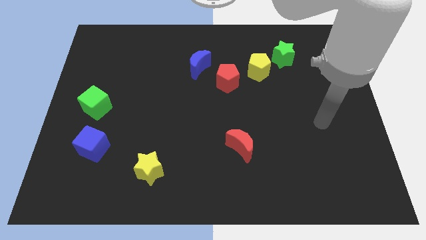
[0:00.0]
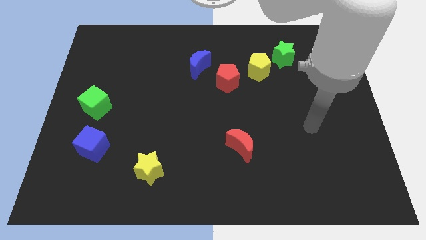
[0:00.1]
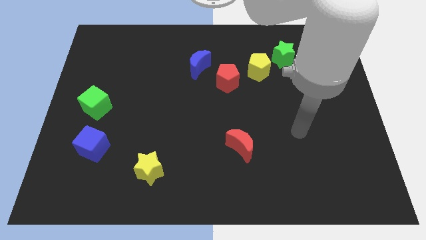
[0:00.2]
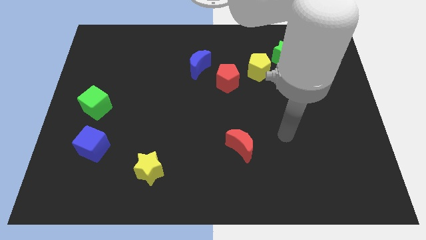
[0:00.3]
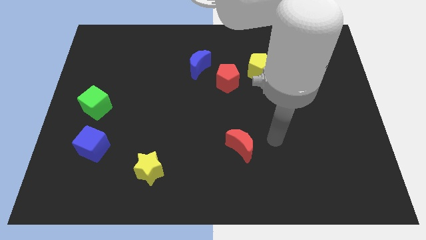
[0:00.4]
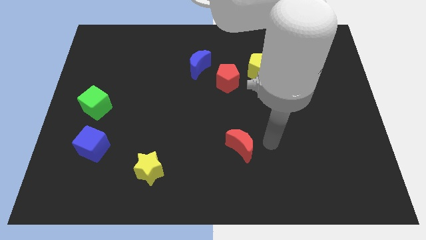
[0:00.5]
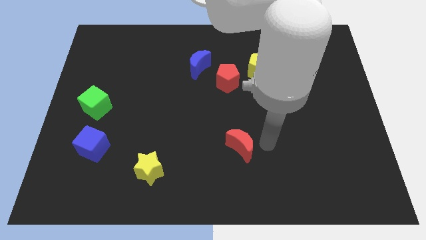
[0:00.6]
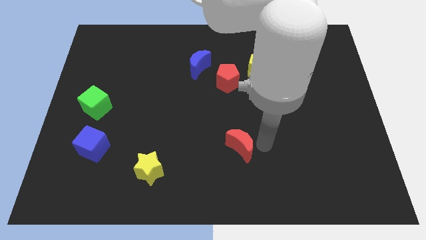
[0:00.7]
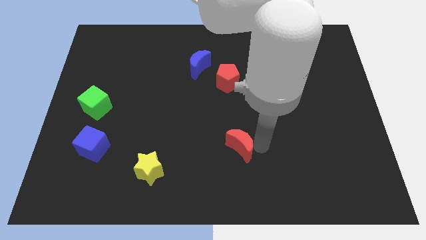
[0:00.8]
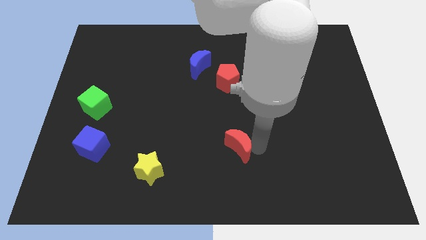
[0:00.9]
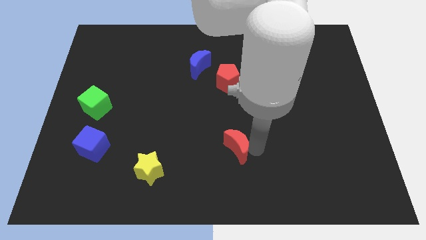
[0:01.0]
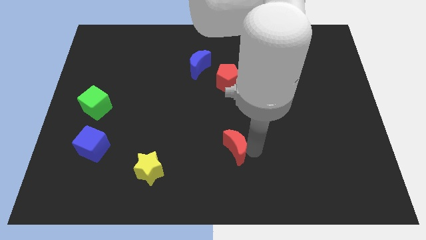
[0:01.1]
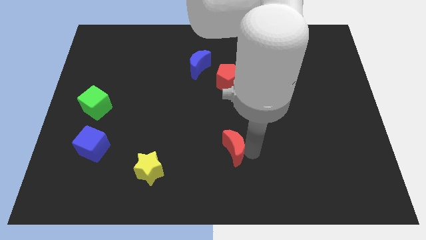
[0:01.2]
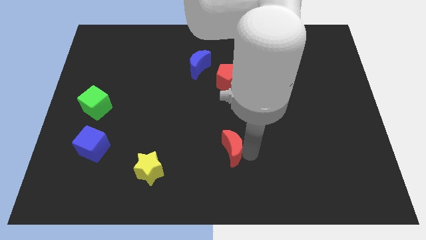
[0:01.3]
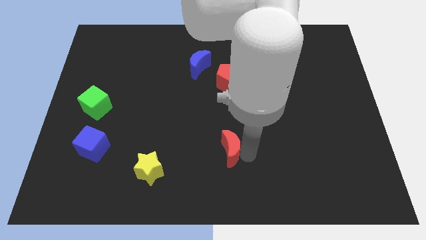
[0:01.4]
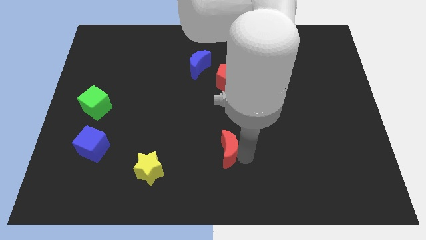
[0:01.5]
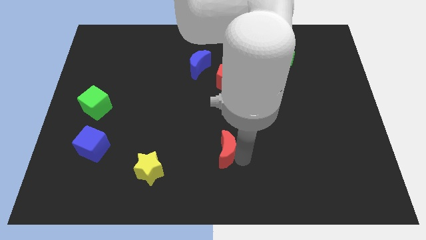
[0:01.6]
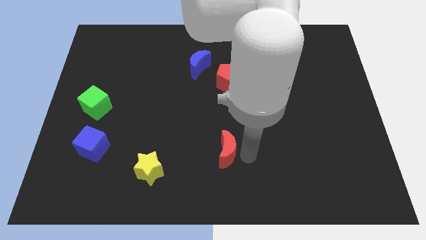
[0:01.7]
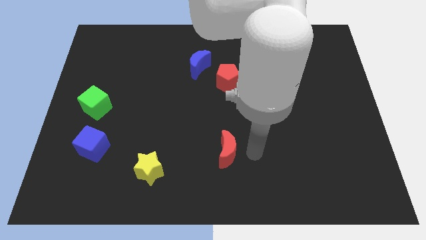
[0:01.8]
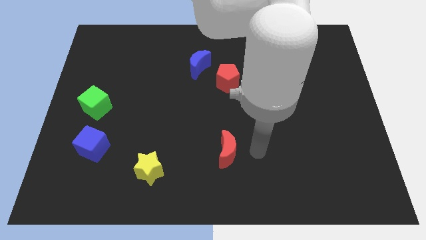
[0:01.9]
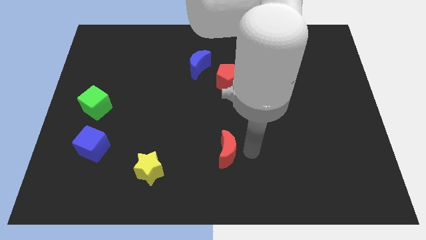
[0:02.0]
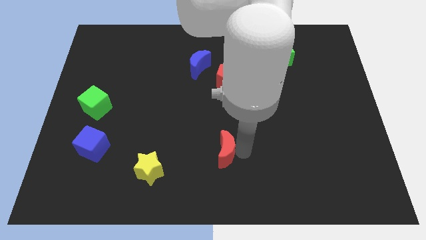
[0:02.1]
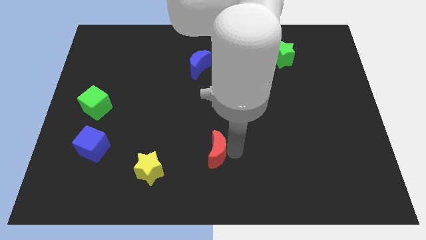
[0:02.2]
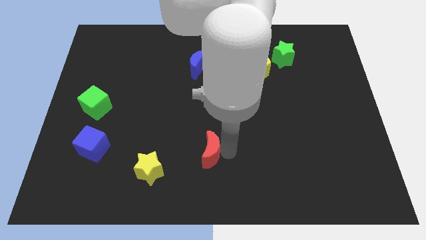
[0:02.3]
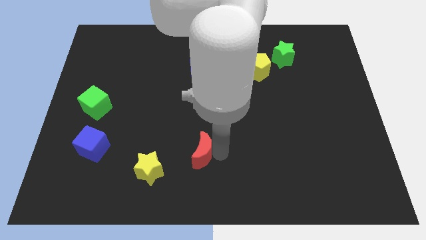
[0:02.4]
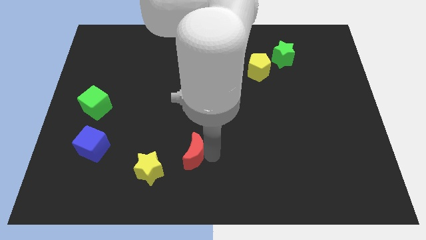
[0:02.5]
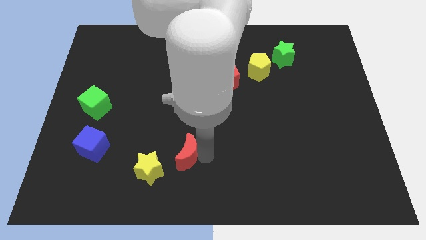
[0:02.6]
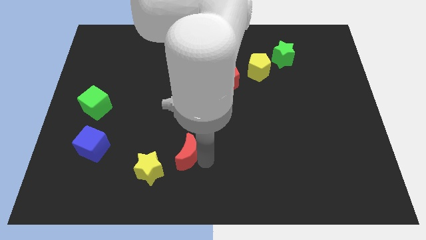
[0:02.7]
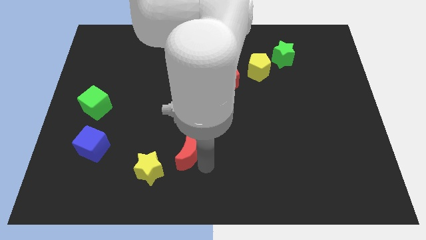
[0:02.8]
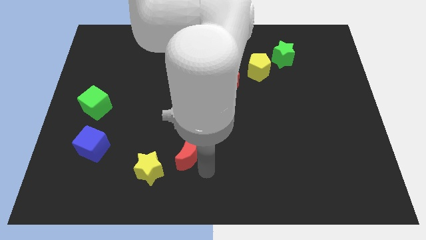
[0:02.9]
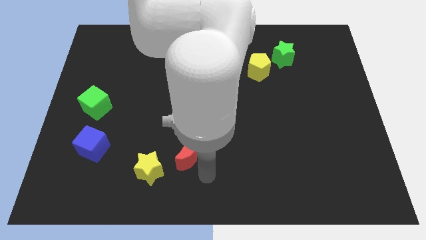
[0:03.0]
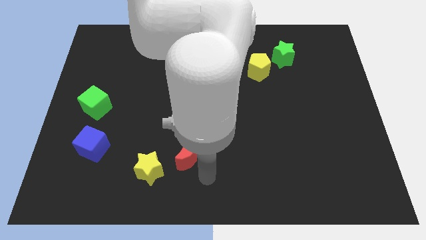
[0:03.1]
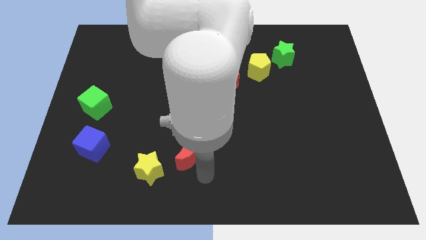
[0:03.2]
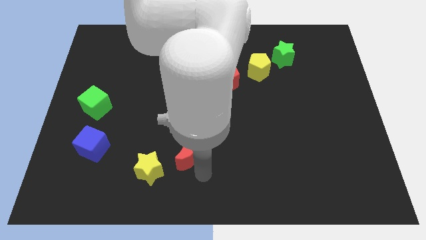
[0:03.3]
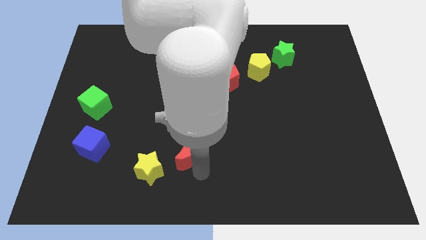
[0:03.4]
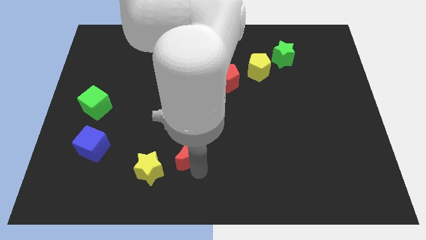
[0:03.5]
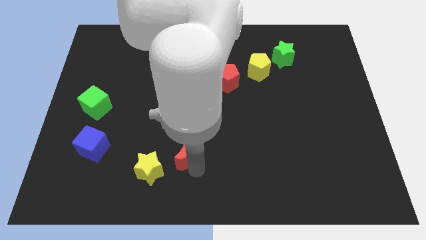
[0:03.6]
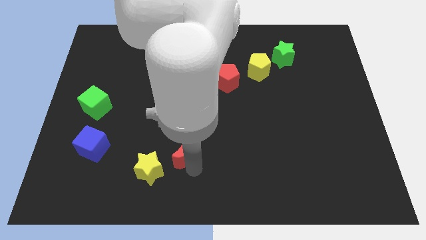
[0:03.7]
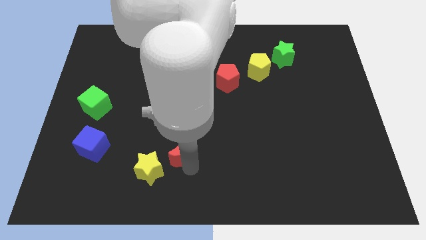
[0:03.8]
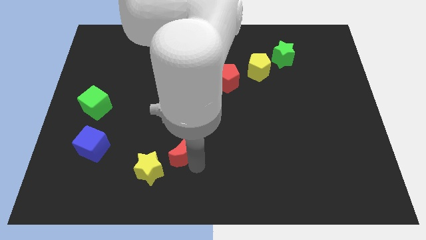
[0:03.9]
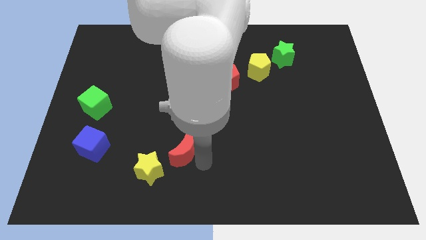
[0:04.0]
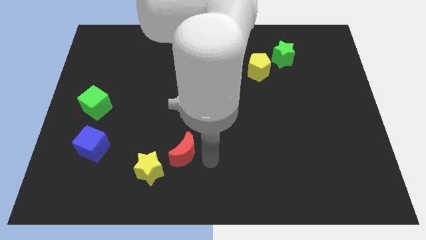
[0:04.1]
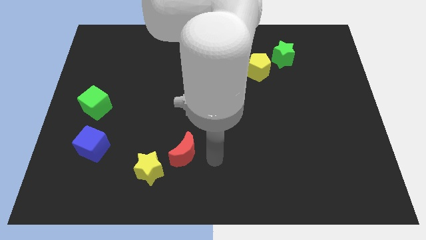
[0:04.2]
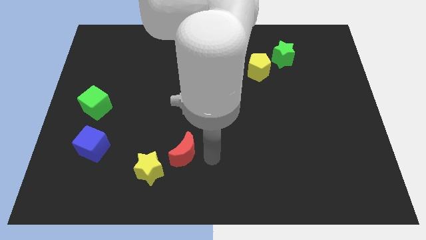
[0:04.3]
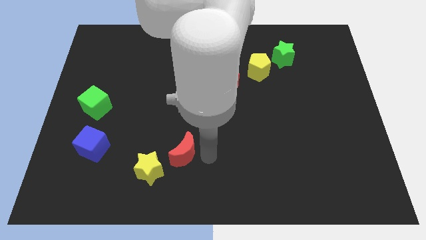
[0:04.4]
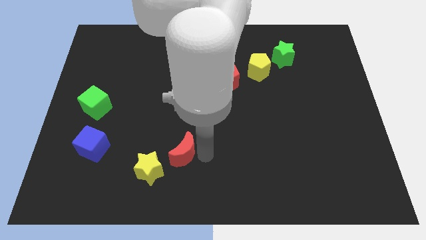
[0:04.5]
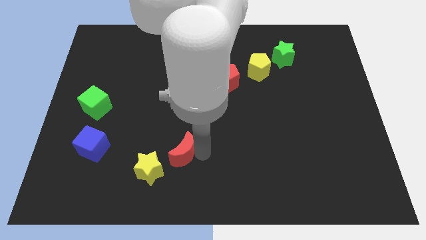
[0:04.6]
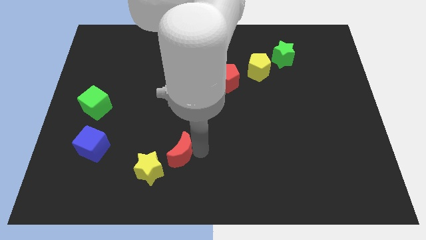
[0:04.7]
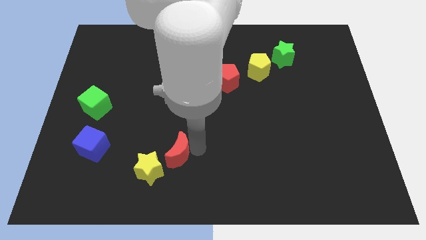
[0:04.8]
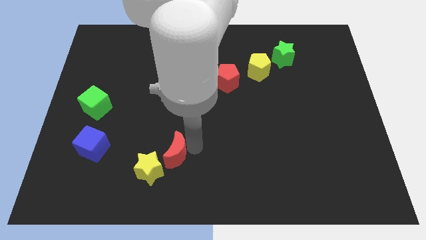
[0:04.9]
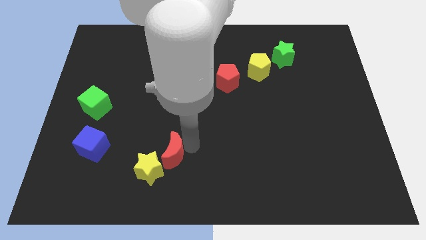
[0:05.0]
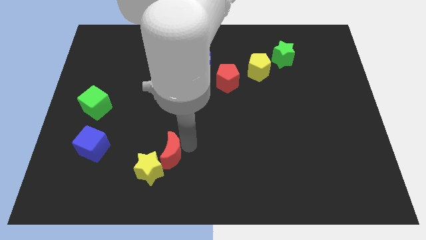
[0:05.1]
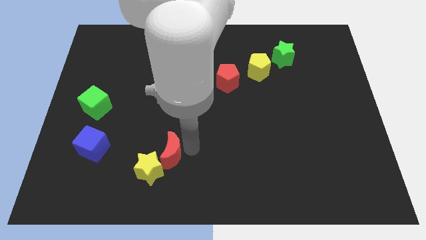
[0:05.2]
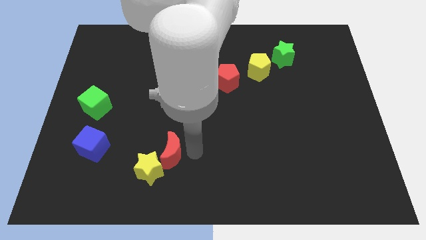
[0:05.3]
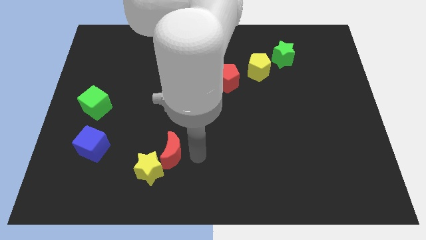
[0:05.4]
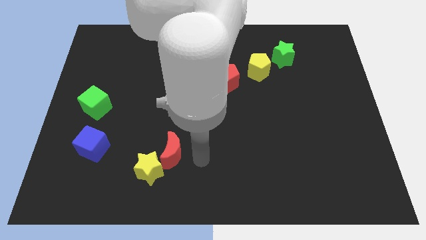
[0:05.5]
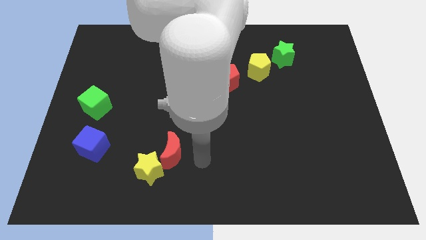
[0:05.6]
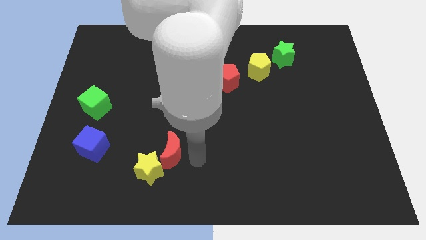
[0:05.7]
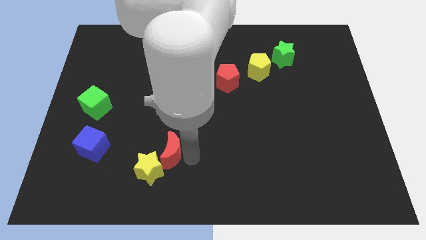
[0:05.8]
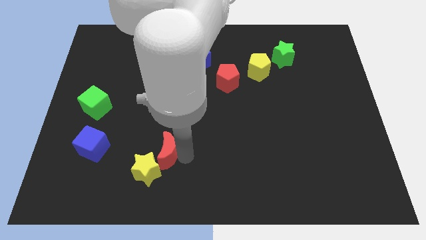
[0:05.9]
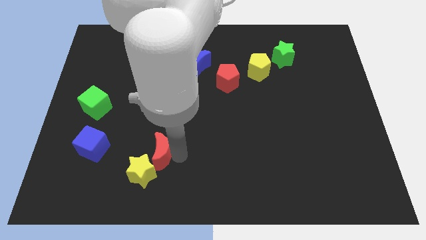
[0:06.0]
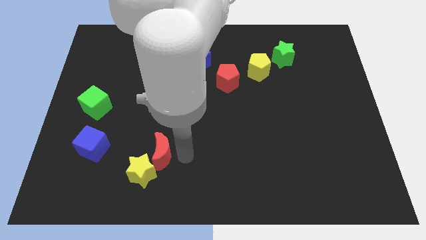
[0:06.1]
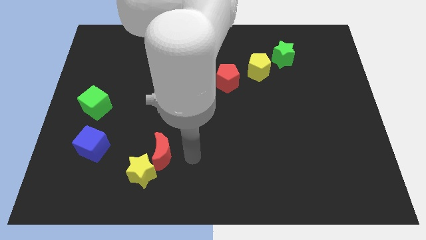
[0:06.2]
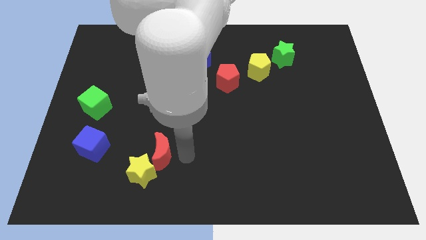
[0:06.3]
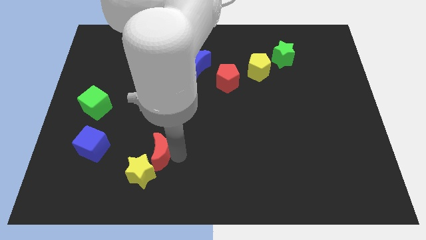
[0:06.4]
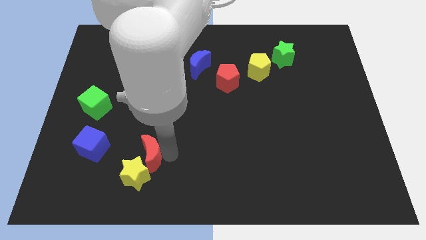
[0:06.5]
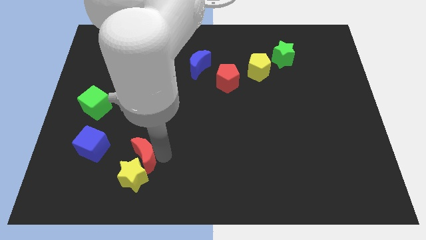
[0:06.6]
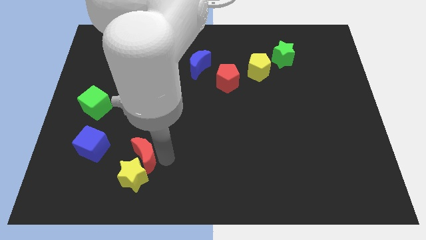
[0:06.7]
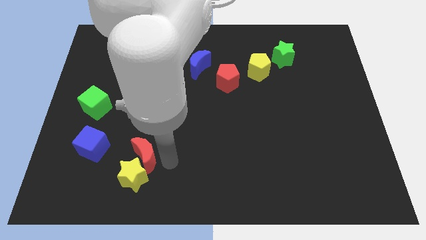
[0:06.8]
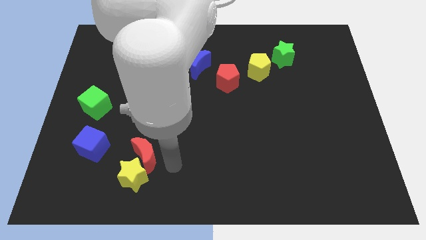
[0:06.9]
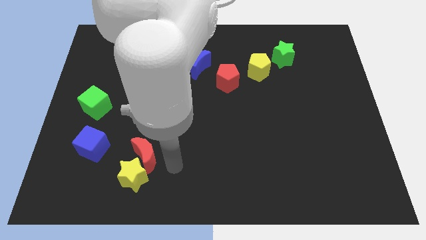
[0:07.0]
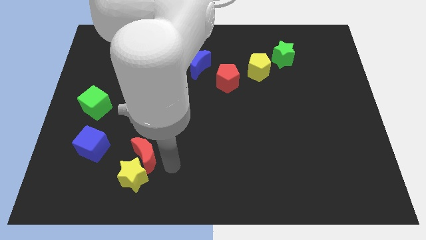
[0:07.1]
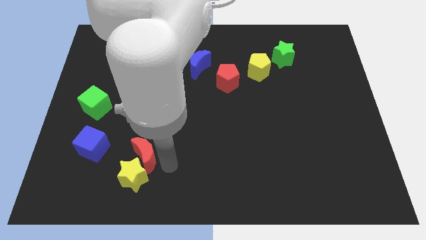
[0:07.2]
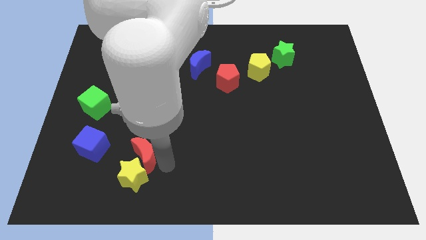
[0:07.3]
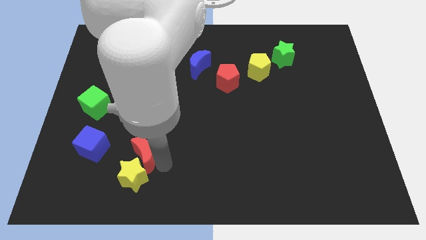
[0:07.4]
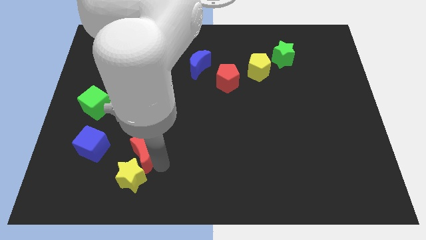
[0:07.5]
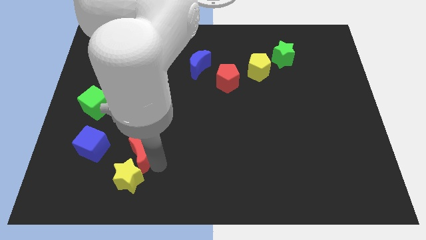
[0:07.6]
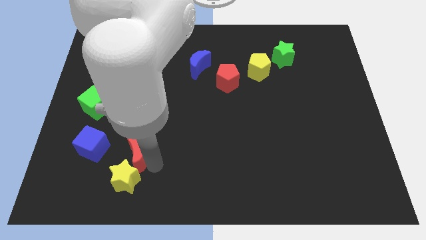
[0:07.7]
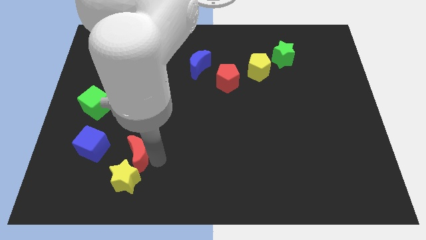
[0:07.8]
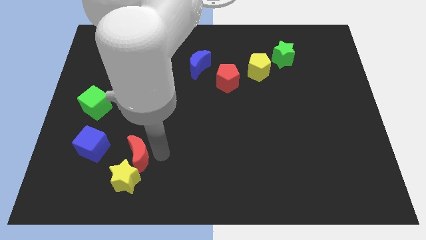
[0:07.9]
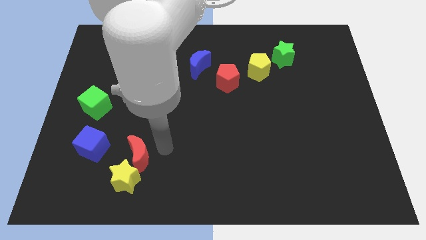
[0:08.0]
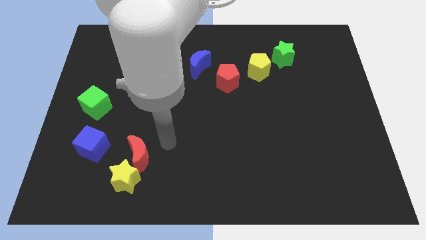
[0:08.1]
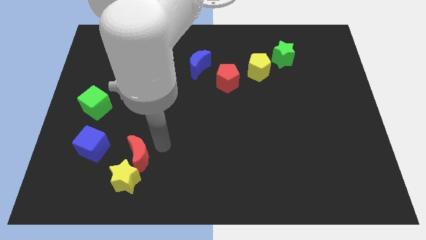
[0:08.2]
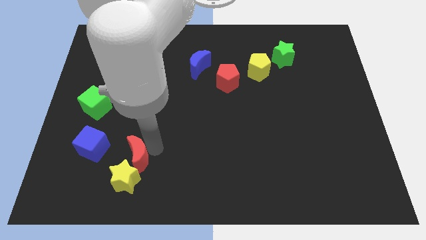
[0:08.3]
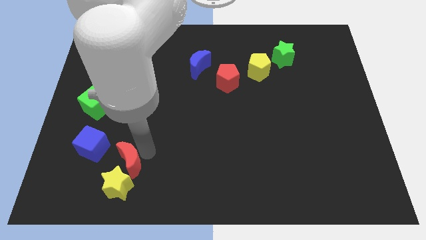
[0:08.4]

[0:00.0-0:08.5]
push the red moon to the bottom right of the blue cube
